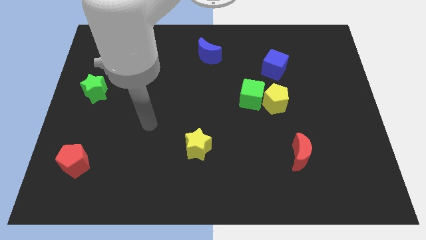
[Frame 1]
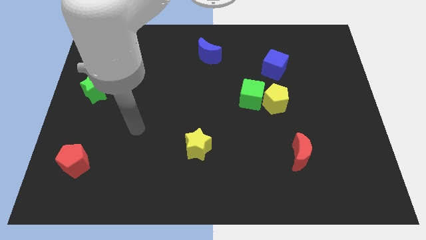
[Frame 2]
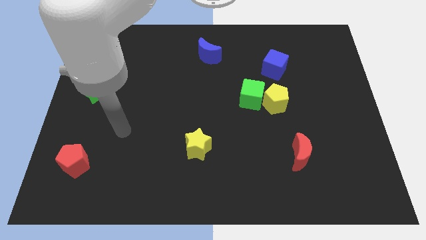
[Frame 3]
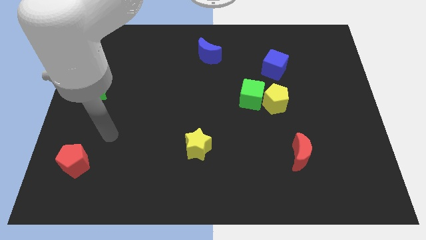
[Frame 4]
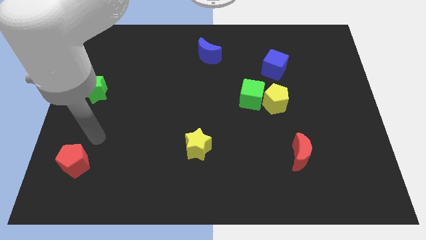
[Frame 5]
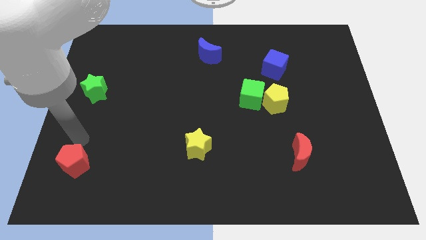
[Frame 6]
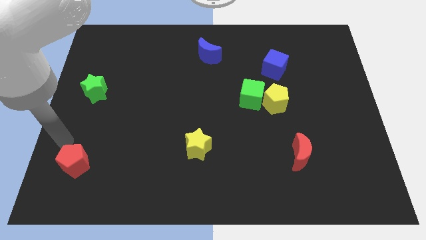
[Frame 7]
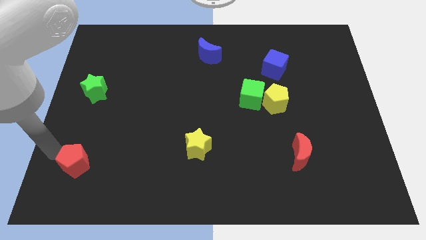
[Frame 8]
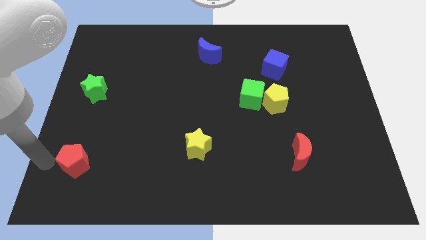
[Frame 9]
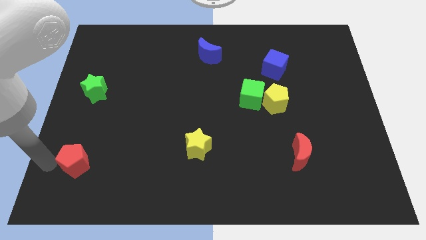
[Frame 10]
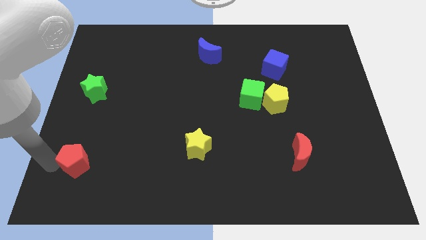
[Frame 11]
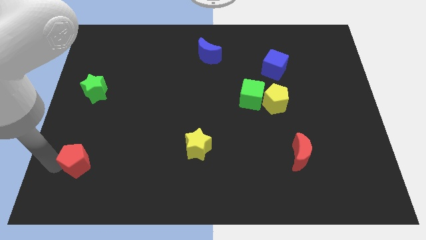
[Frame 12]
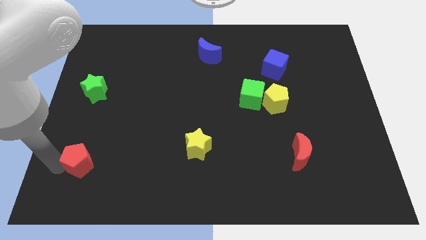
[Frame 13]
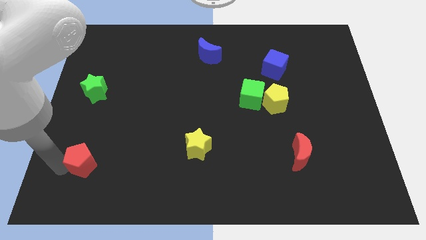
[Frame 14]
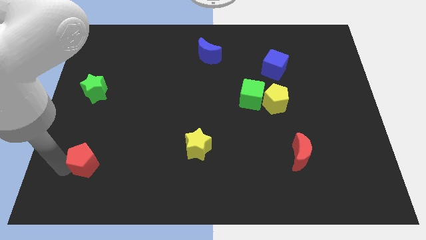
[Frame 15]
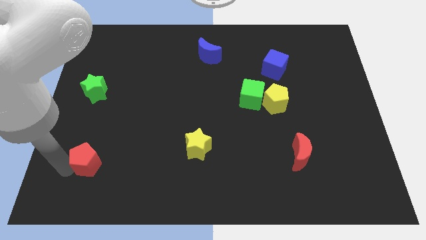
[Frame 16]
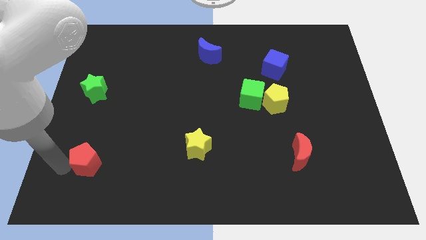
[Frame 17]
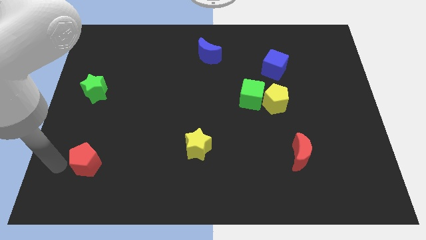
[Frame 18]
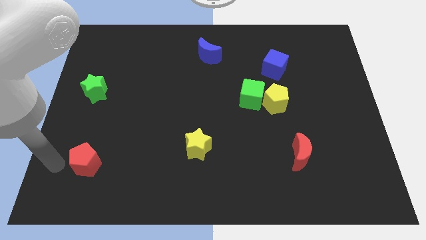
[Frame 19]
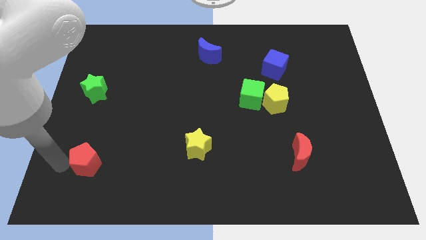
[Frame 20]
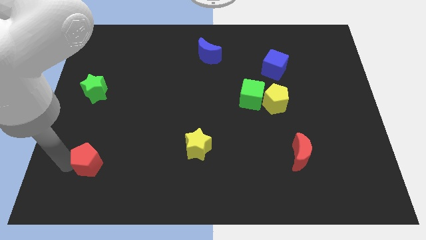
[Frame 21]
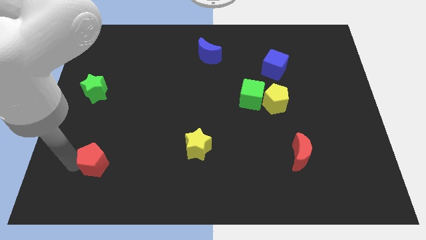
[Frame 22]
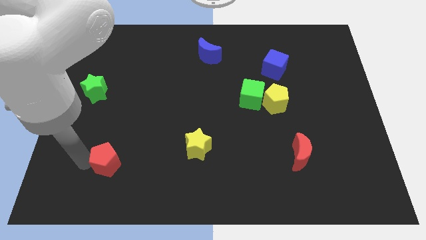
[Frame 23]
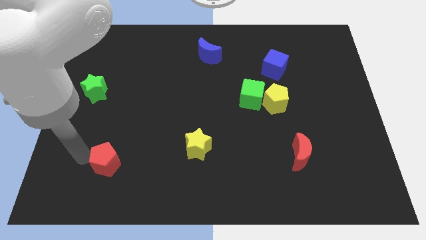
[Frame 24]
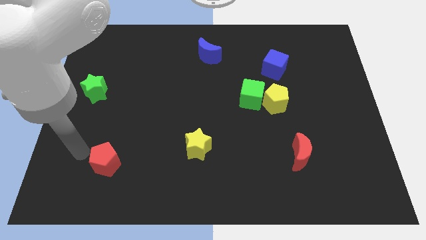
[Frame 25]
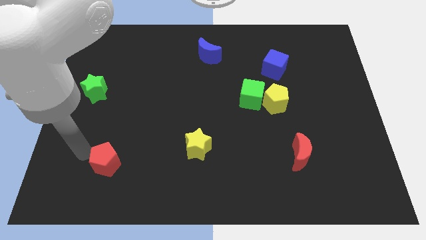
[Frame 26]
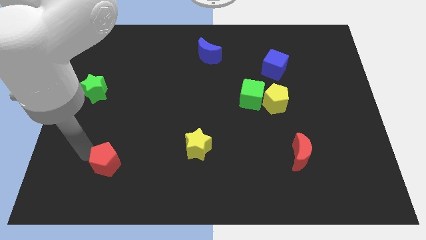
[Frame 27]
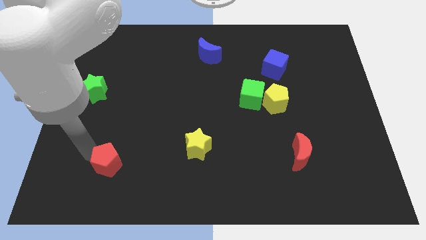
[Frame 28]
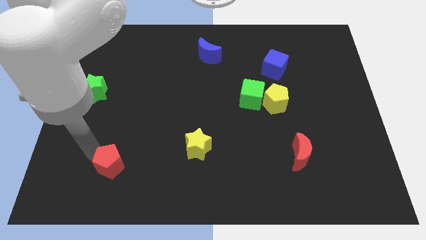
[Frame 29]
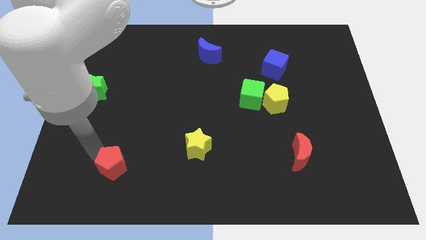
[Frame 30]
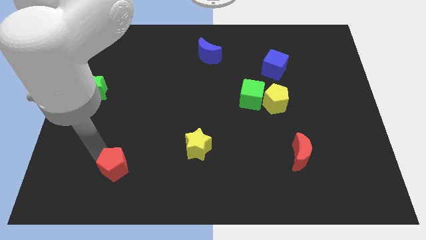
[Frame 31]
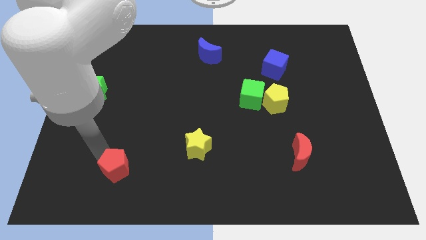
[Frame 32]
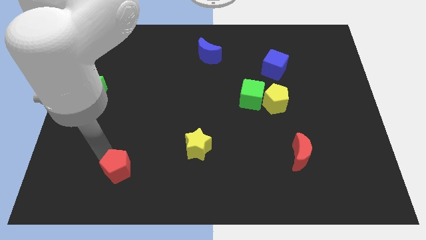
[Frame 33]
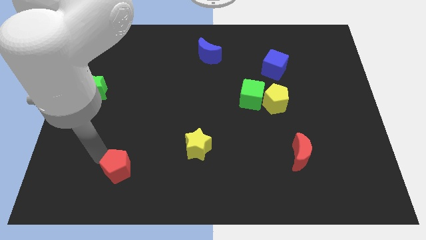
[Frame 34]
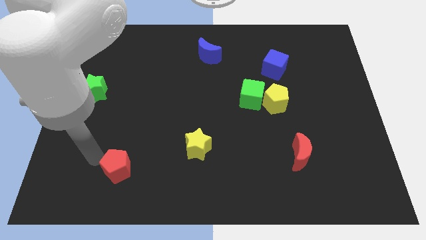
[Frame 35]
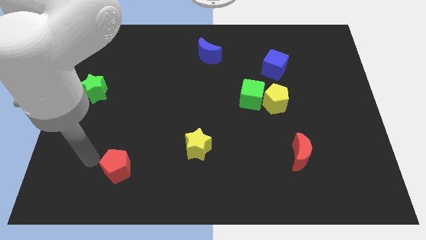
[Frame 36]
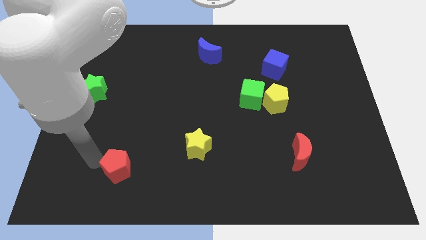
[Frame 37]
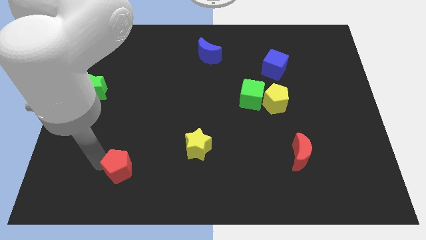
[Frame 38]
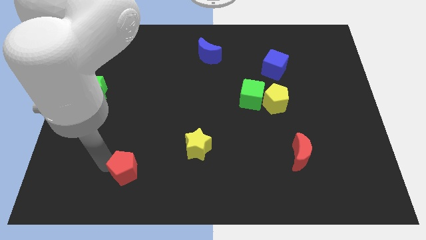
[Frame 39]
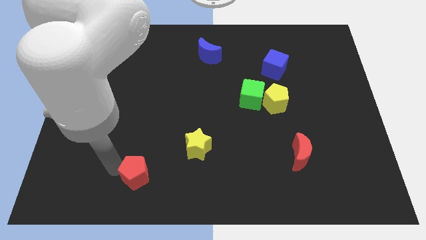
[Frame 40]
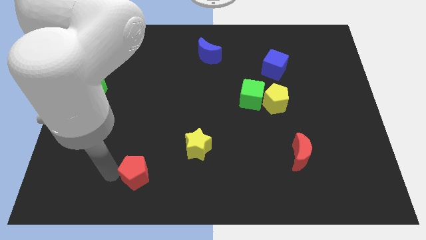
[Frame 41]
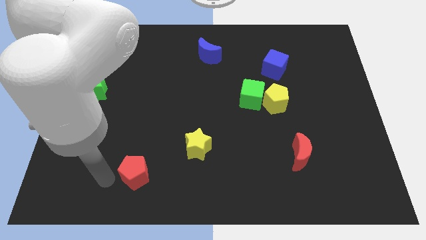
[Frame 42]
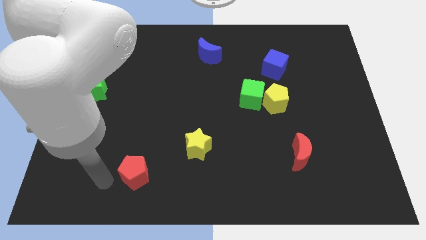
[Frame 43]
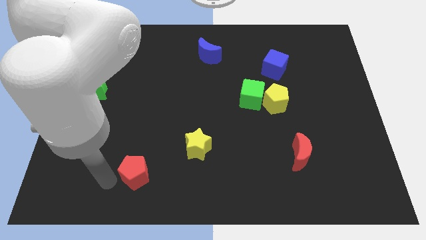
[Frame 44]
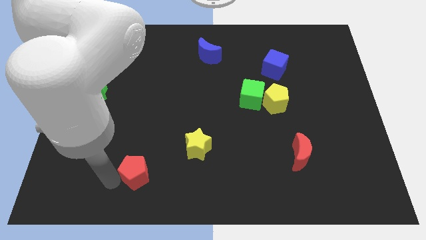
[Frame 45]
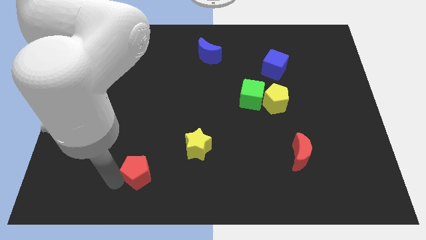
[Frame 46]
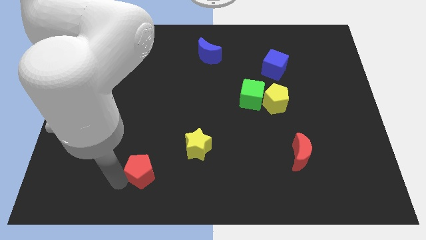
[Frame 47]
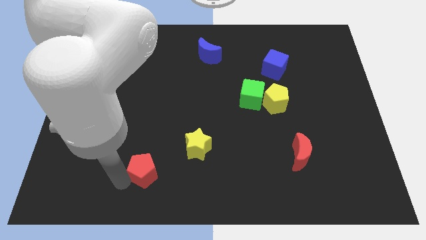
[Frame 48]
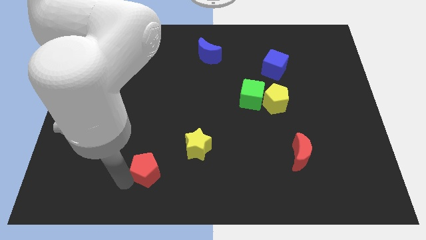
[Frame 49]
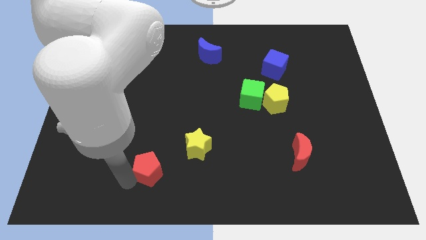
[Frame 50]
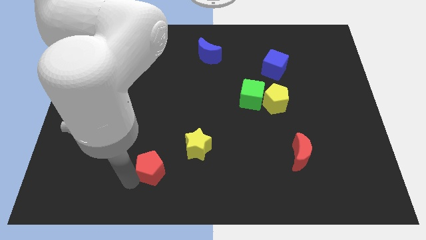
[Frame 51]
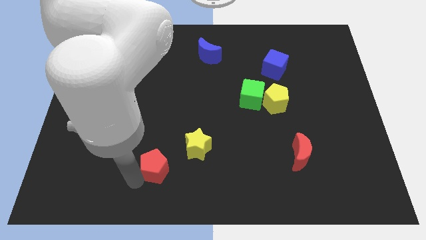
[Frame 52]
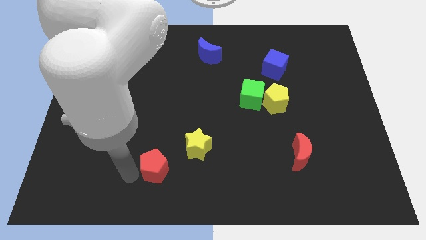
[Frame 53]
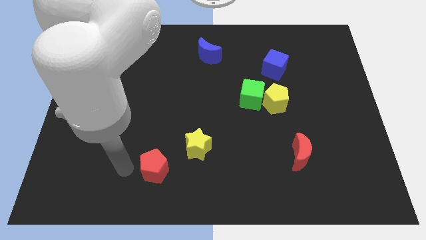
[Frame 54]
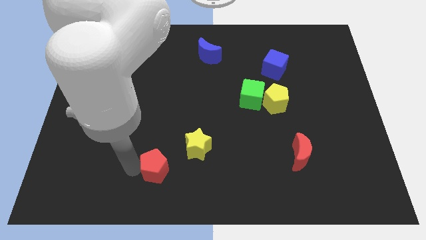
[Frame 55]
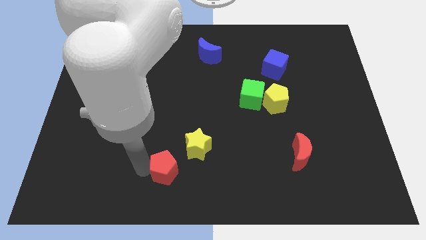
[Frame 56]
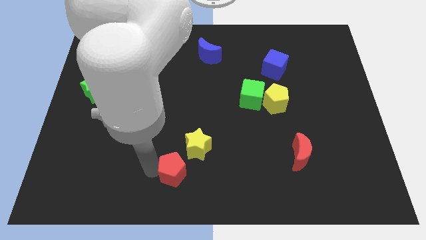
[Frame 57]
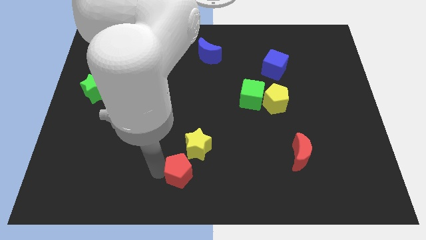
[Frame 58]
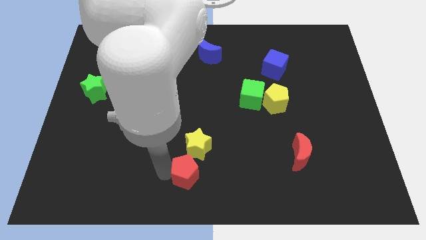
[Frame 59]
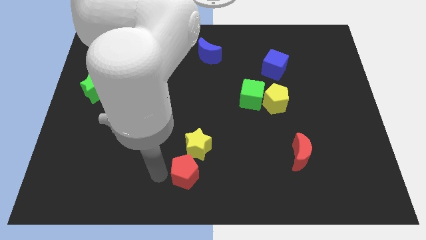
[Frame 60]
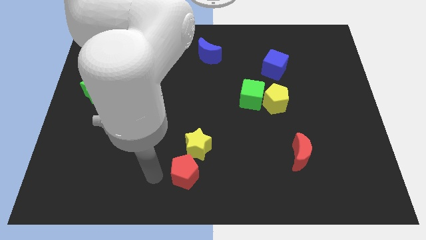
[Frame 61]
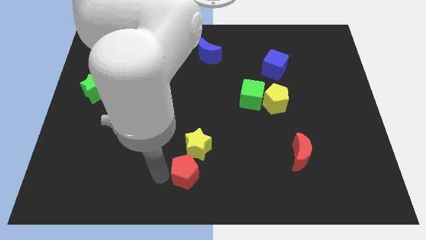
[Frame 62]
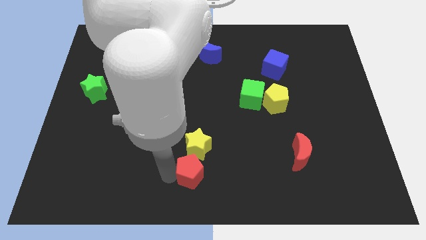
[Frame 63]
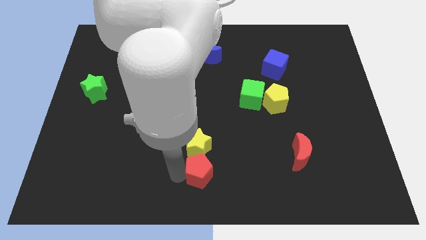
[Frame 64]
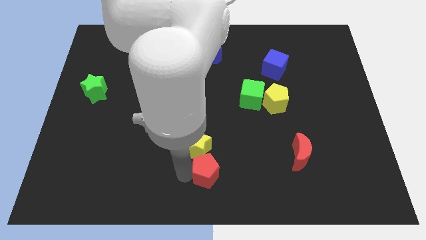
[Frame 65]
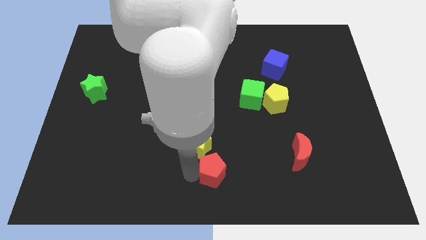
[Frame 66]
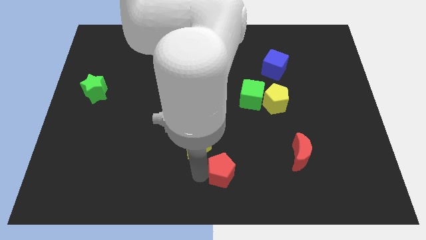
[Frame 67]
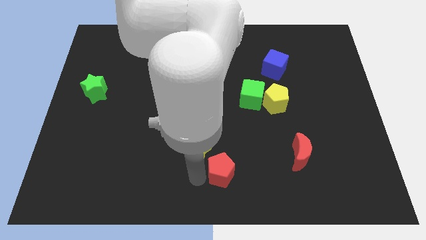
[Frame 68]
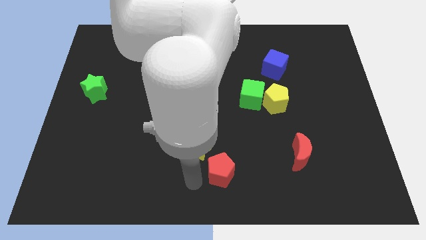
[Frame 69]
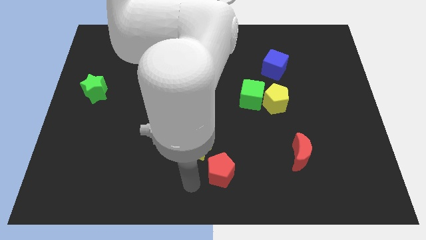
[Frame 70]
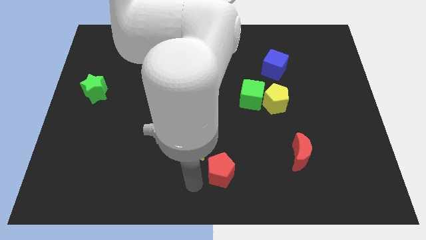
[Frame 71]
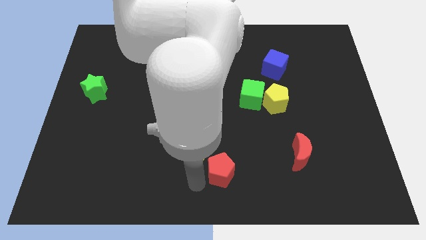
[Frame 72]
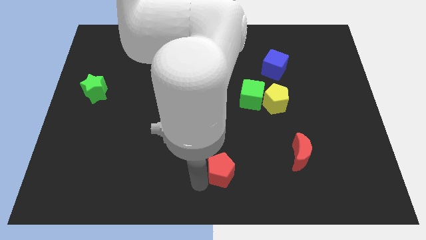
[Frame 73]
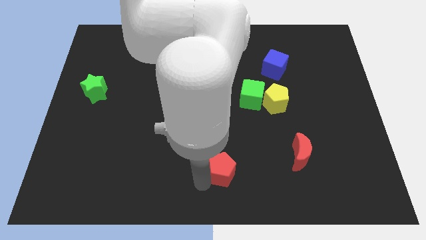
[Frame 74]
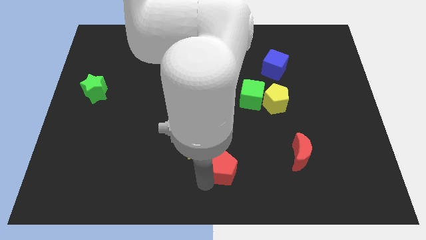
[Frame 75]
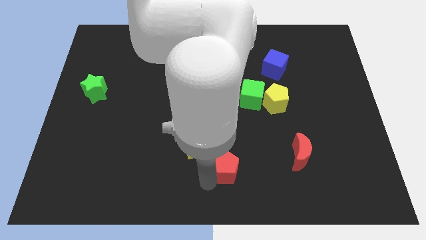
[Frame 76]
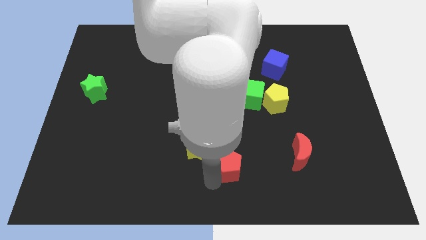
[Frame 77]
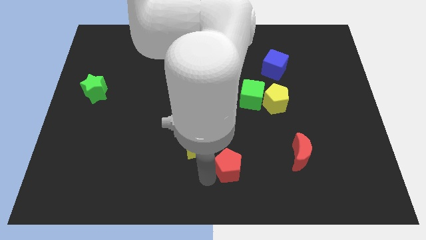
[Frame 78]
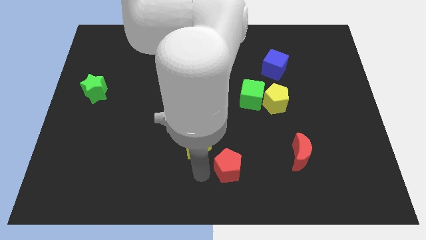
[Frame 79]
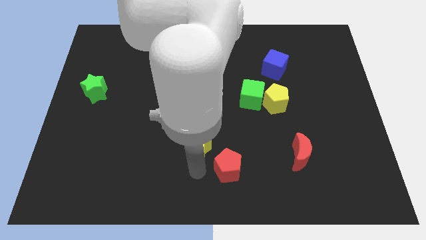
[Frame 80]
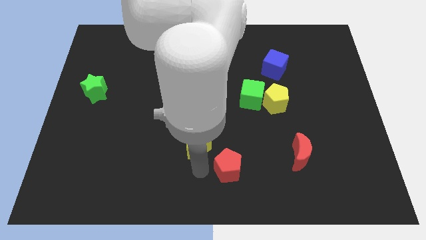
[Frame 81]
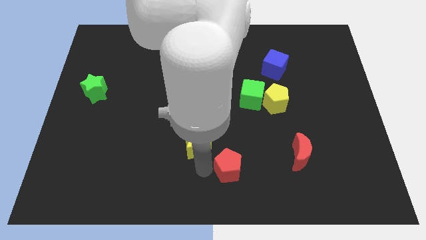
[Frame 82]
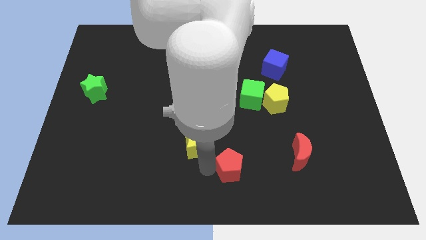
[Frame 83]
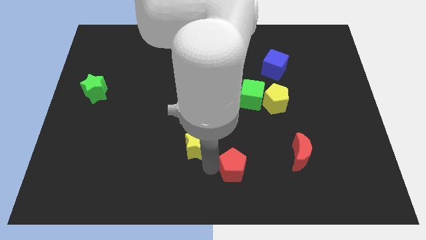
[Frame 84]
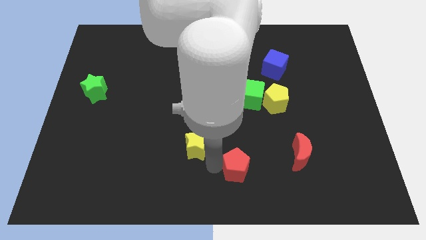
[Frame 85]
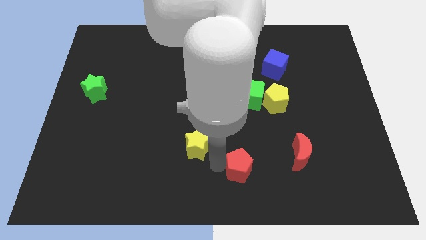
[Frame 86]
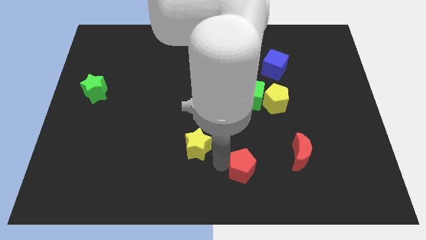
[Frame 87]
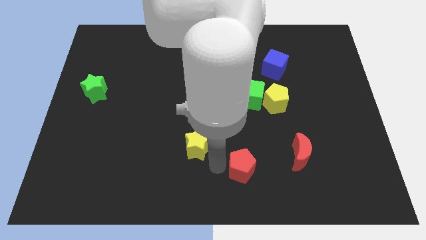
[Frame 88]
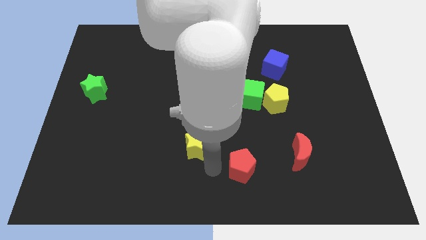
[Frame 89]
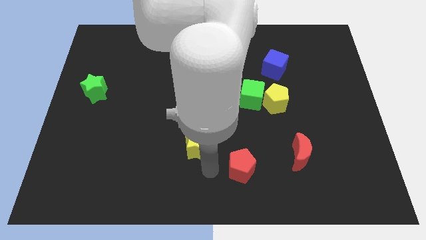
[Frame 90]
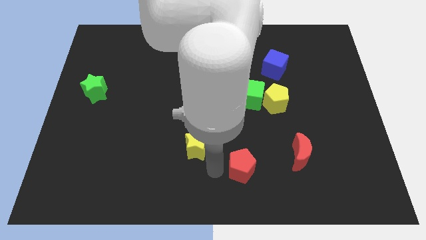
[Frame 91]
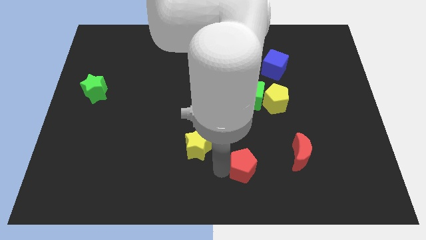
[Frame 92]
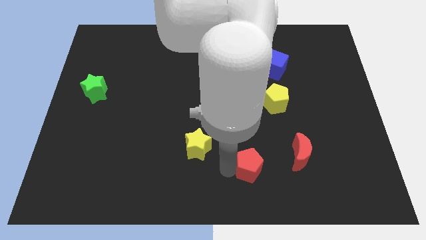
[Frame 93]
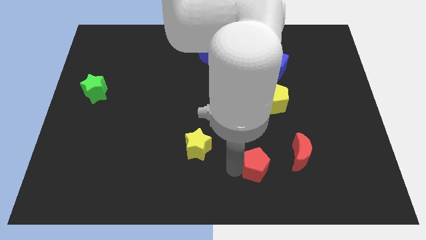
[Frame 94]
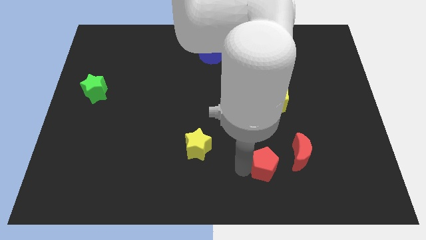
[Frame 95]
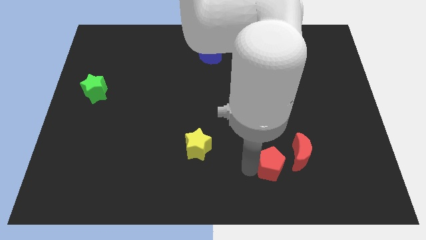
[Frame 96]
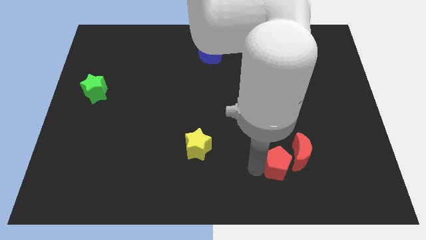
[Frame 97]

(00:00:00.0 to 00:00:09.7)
move the red pentagon to the red moon
